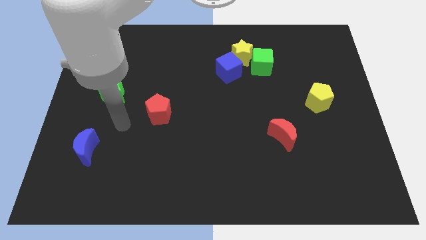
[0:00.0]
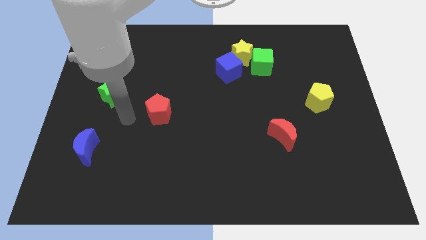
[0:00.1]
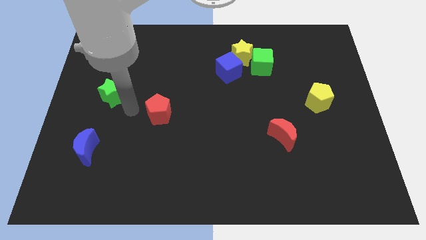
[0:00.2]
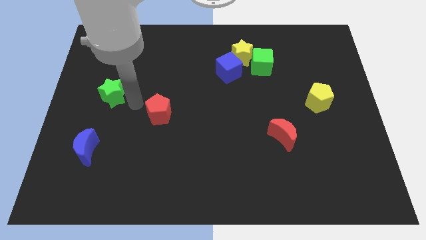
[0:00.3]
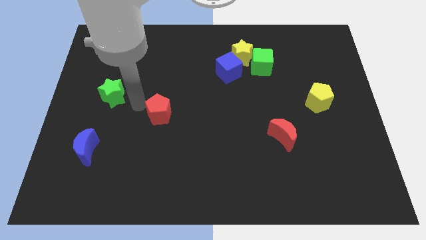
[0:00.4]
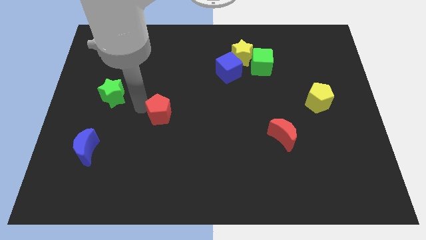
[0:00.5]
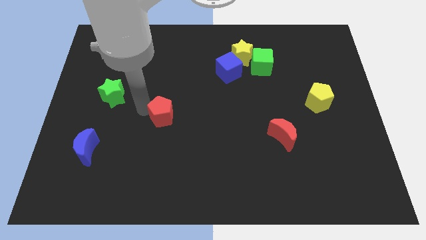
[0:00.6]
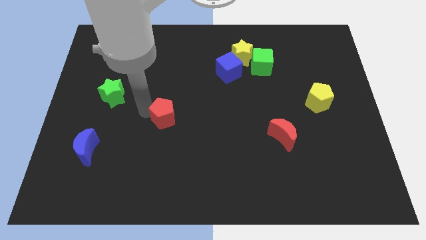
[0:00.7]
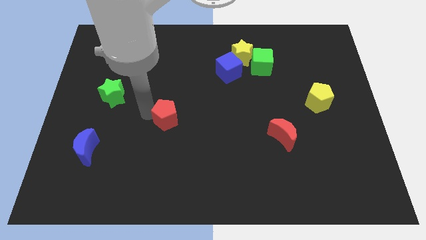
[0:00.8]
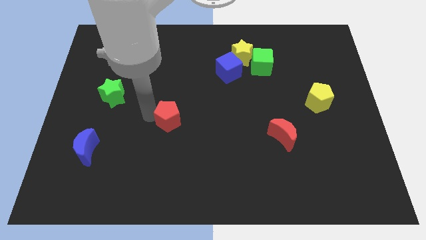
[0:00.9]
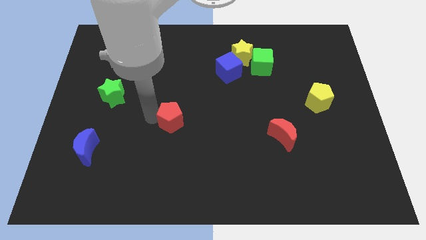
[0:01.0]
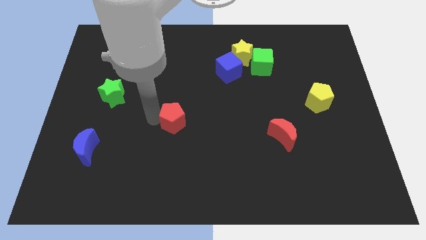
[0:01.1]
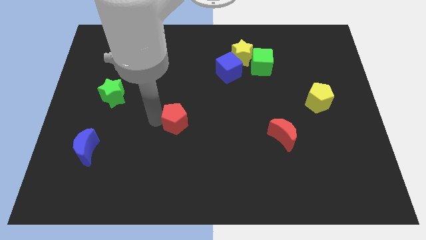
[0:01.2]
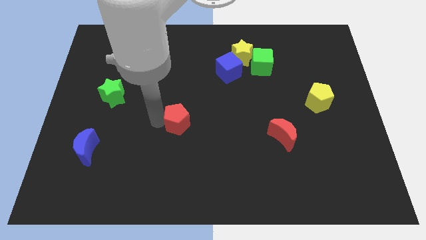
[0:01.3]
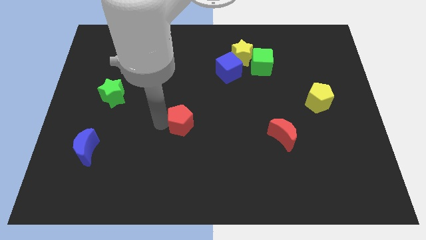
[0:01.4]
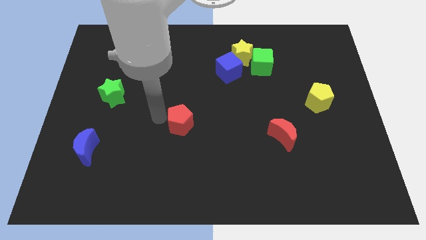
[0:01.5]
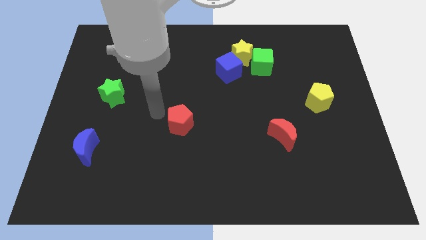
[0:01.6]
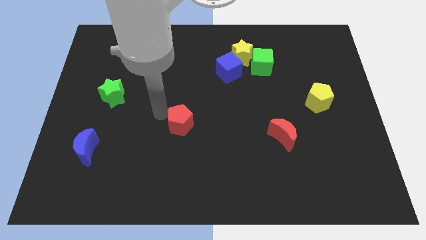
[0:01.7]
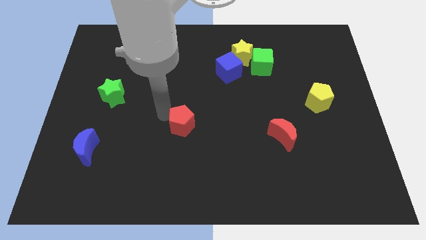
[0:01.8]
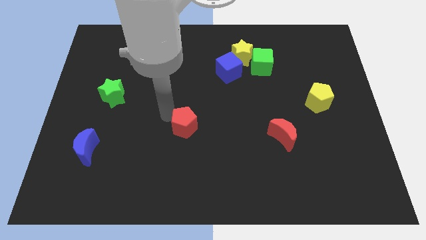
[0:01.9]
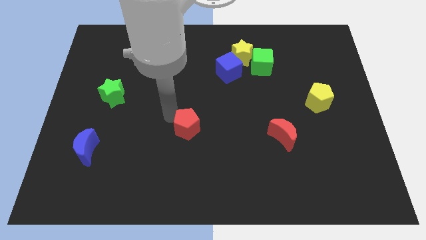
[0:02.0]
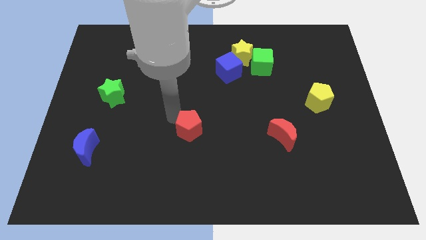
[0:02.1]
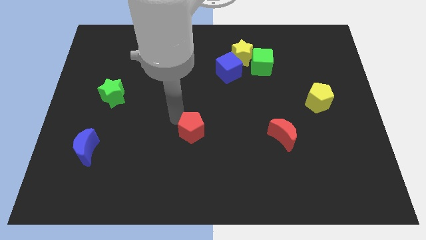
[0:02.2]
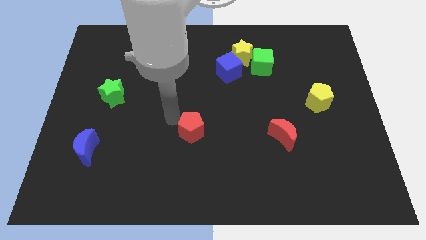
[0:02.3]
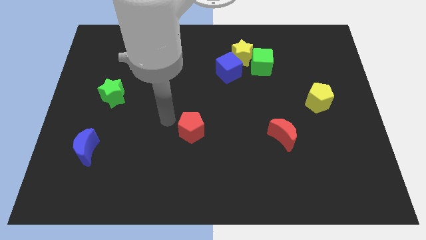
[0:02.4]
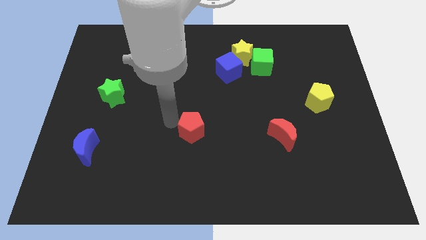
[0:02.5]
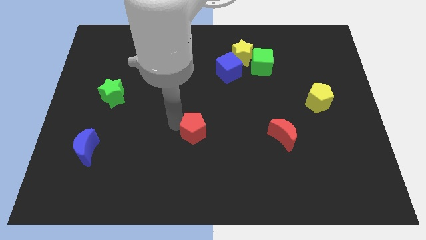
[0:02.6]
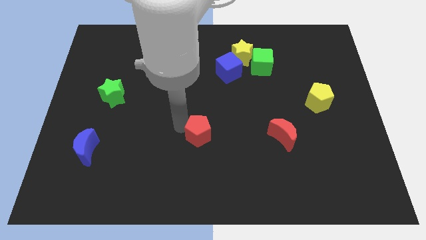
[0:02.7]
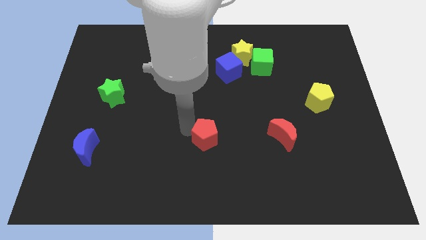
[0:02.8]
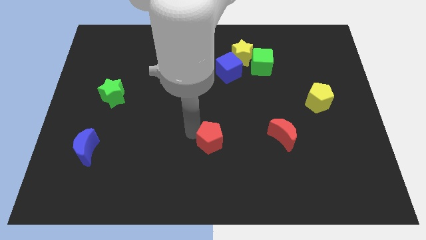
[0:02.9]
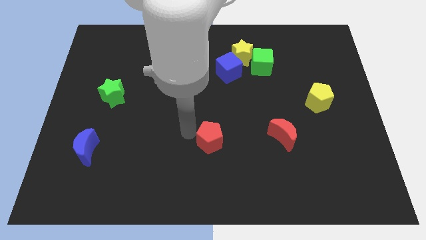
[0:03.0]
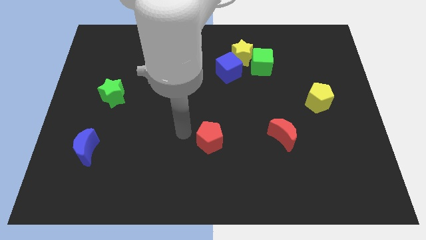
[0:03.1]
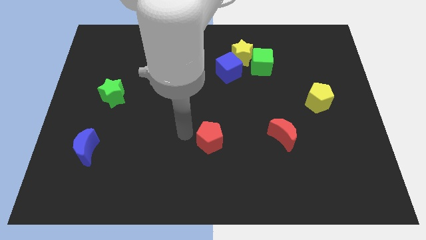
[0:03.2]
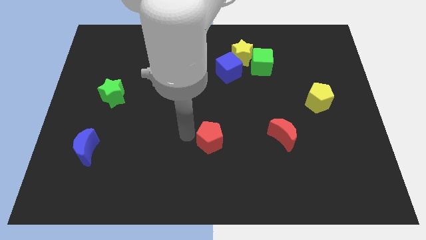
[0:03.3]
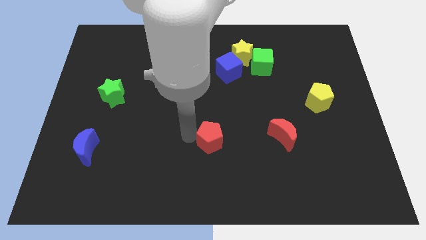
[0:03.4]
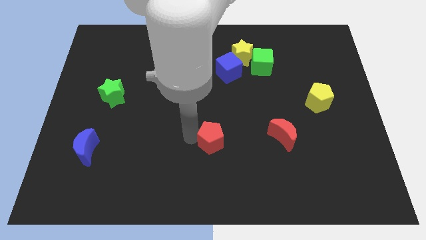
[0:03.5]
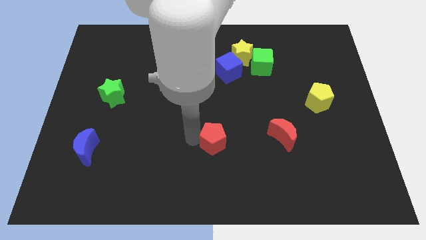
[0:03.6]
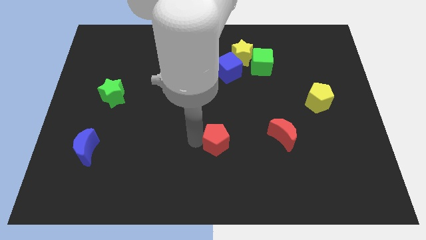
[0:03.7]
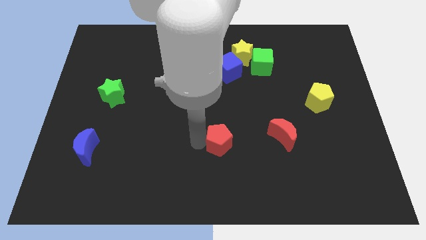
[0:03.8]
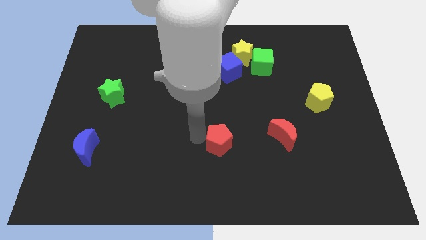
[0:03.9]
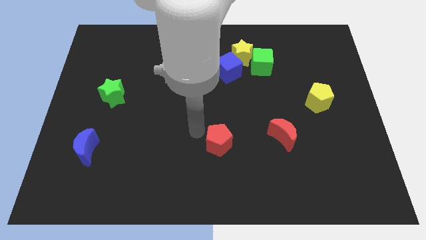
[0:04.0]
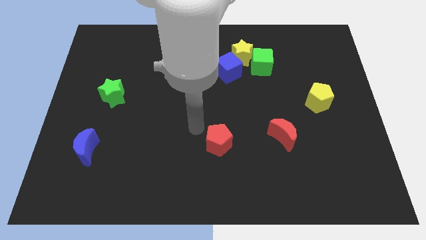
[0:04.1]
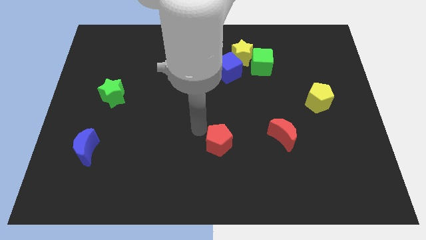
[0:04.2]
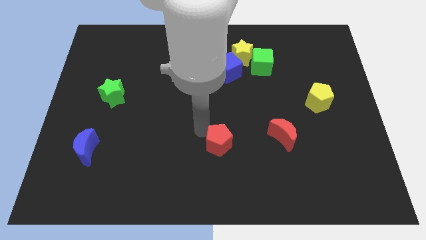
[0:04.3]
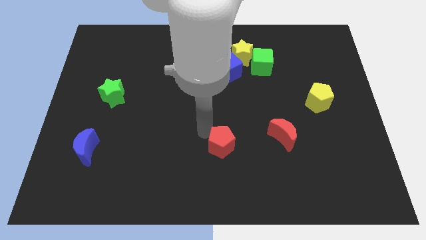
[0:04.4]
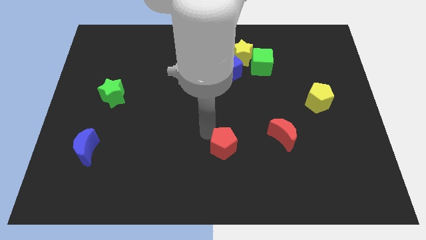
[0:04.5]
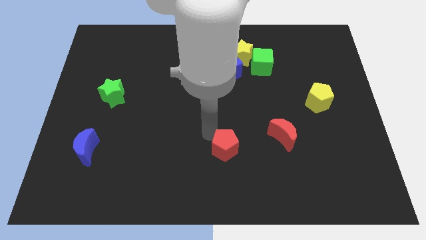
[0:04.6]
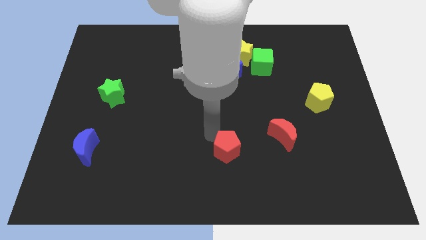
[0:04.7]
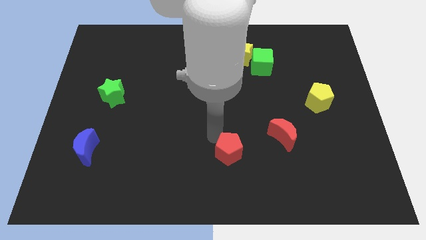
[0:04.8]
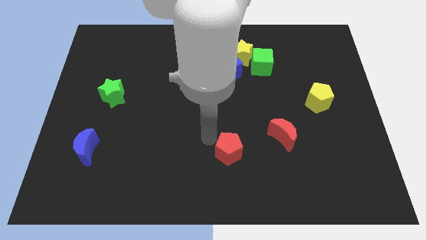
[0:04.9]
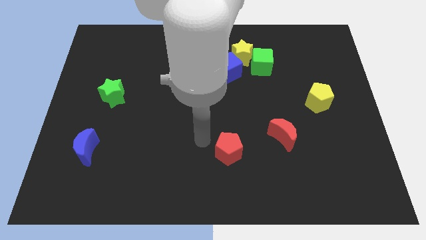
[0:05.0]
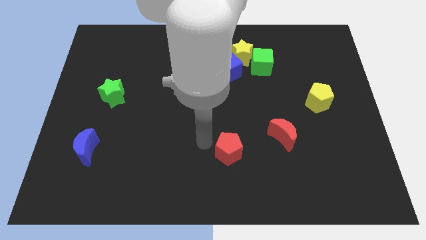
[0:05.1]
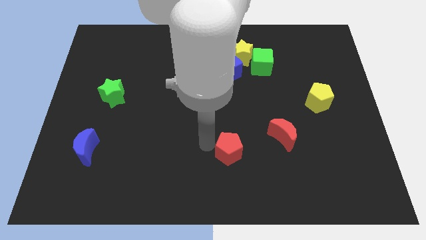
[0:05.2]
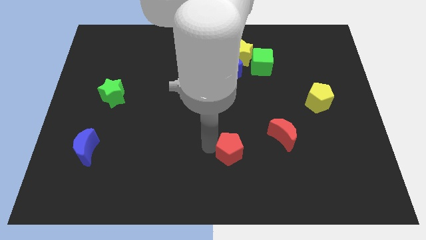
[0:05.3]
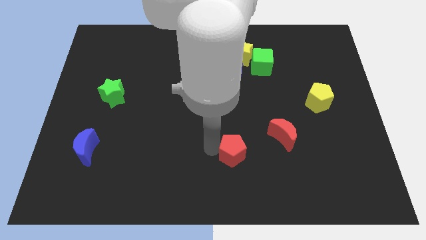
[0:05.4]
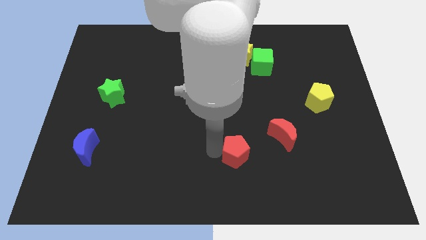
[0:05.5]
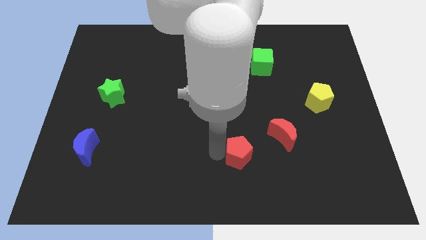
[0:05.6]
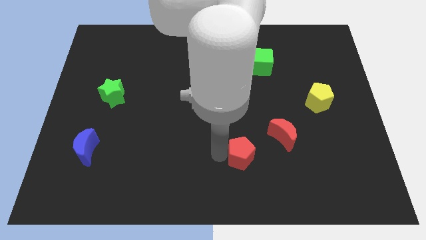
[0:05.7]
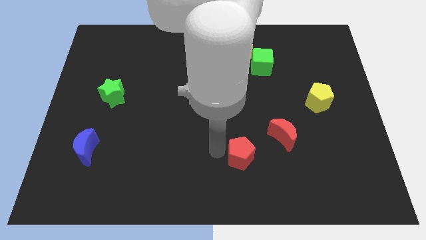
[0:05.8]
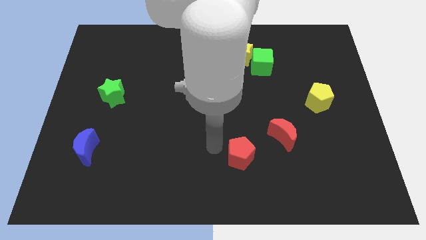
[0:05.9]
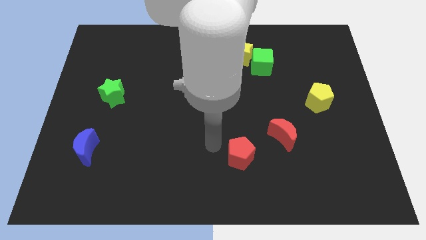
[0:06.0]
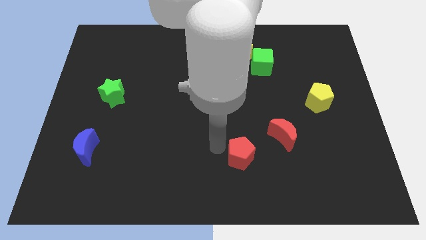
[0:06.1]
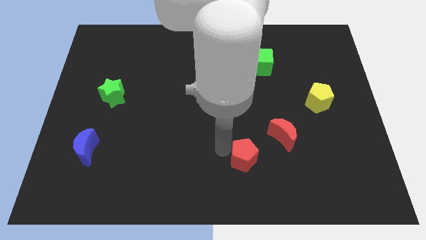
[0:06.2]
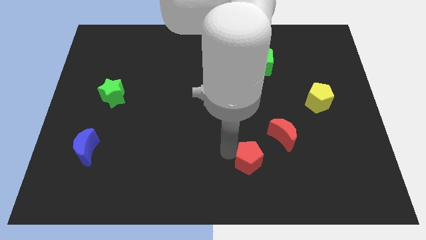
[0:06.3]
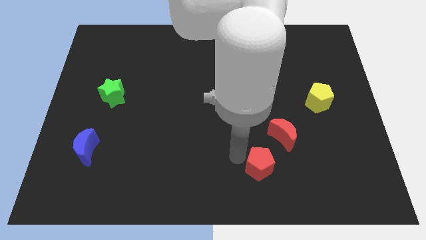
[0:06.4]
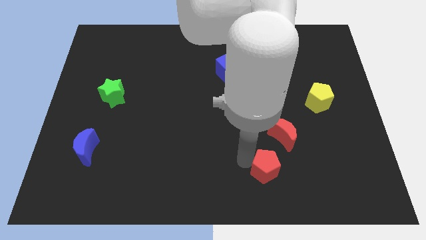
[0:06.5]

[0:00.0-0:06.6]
push the red pentagon to the bottom side of the red moon

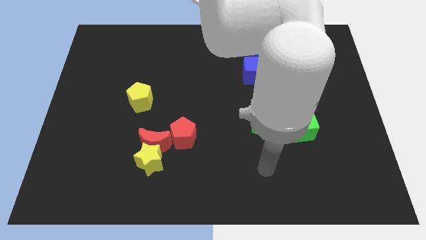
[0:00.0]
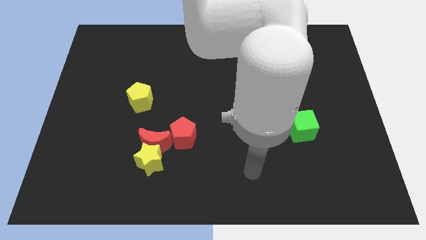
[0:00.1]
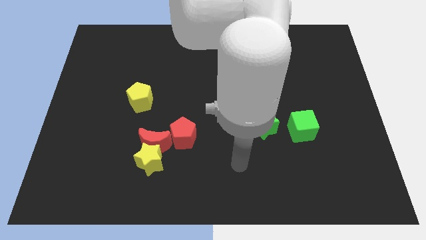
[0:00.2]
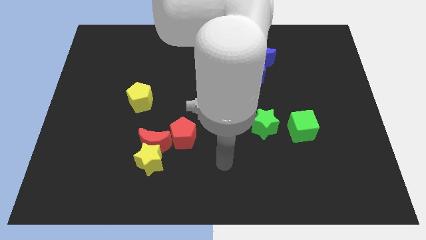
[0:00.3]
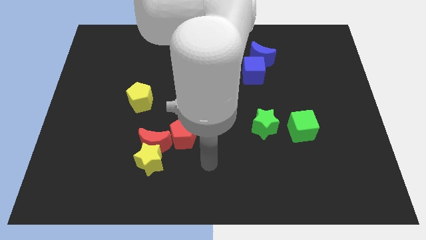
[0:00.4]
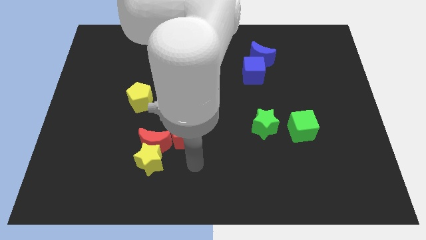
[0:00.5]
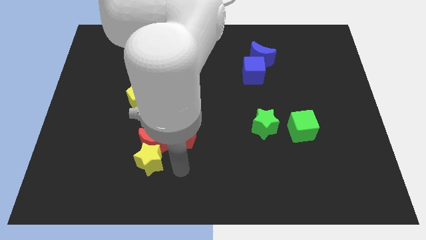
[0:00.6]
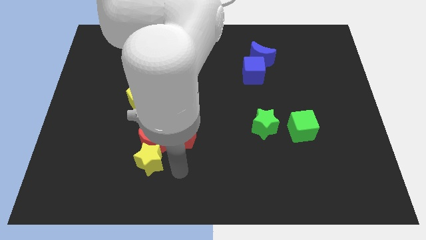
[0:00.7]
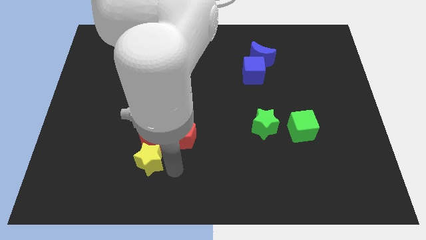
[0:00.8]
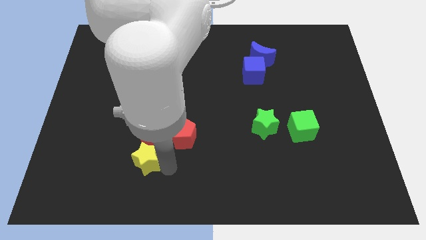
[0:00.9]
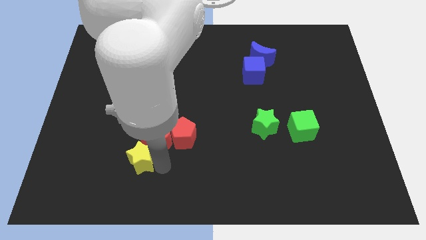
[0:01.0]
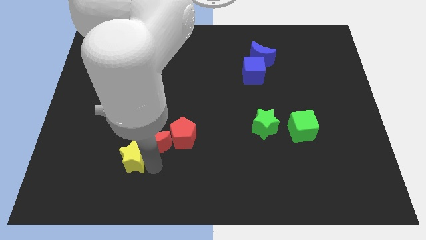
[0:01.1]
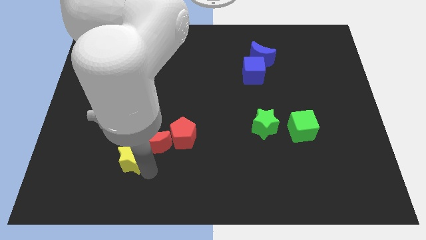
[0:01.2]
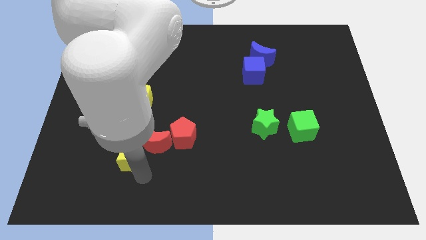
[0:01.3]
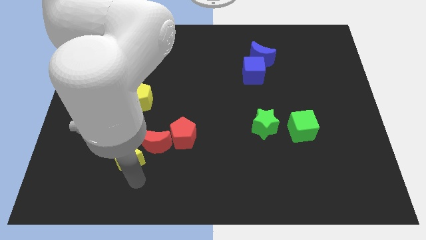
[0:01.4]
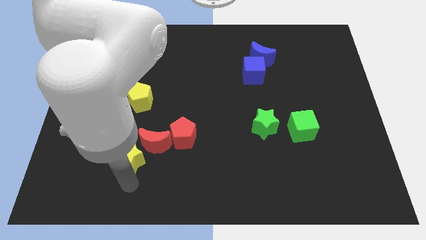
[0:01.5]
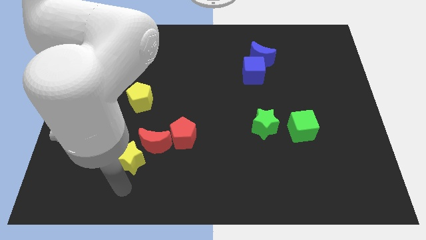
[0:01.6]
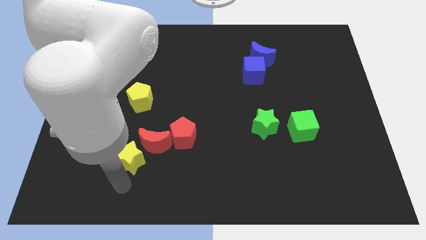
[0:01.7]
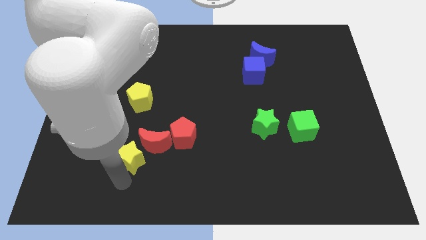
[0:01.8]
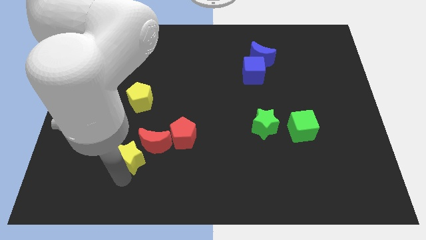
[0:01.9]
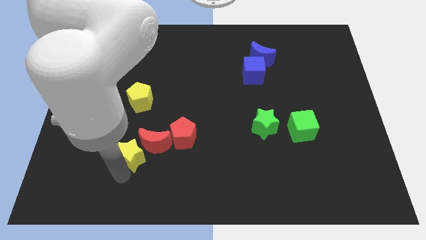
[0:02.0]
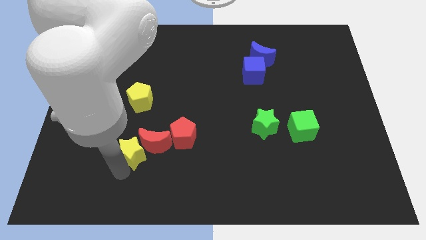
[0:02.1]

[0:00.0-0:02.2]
put the yellow star just left of the red pentagon
